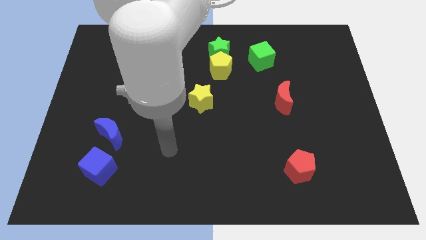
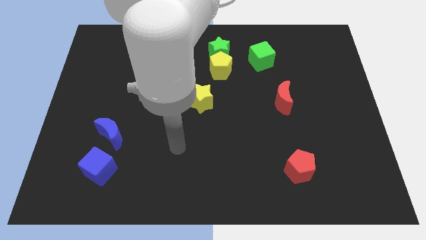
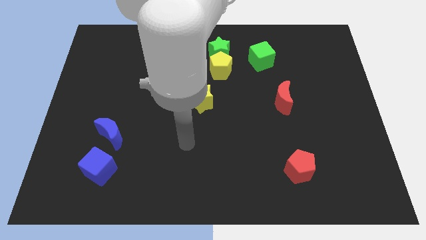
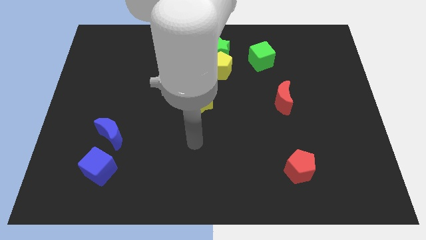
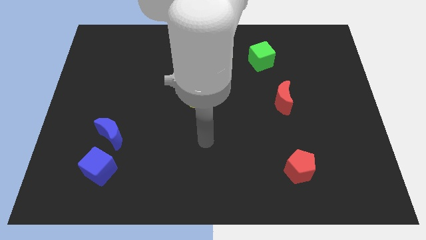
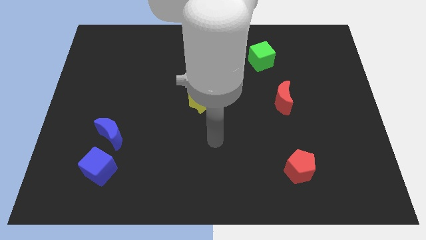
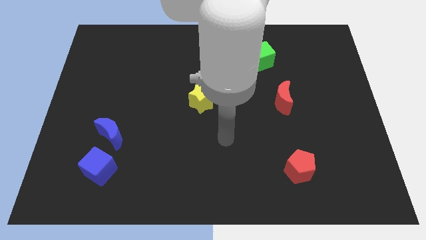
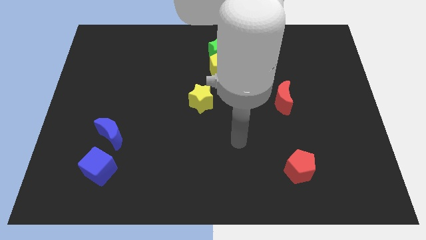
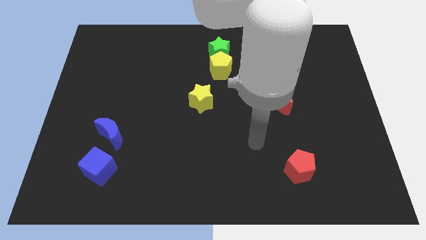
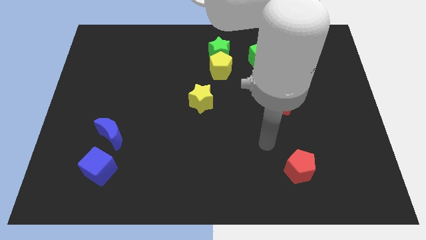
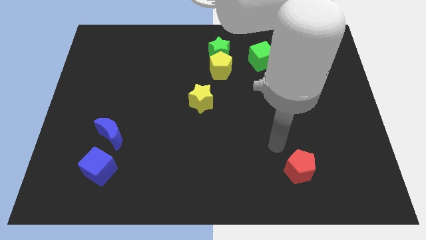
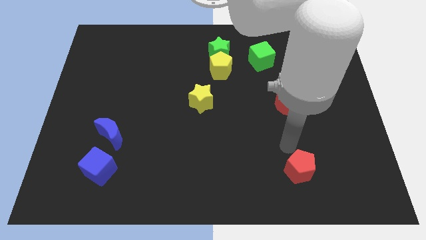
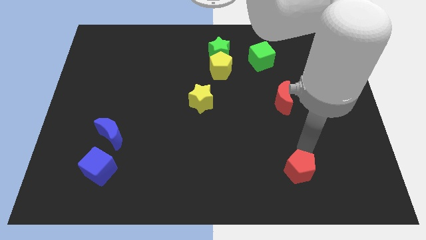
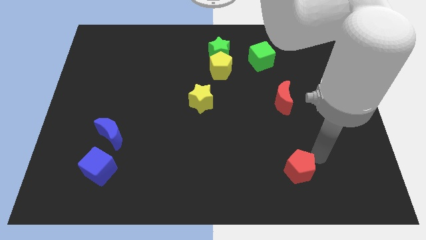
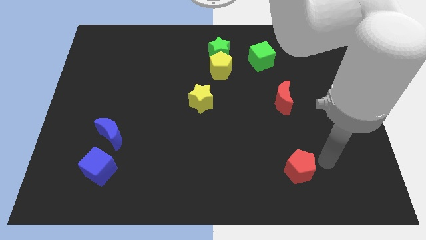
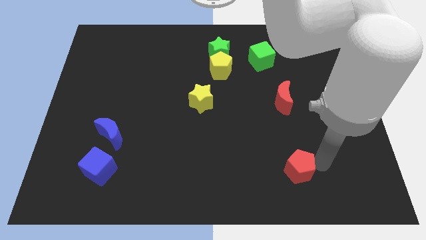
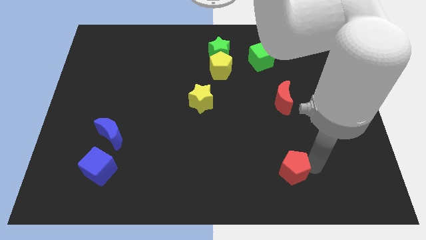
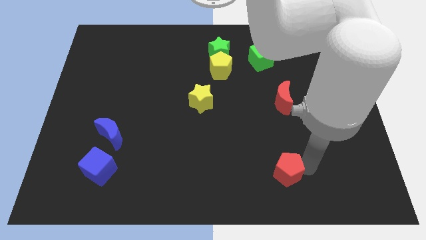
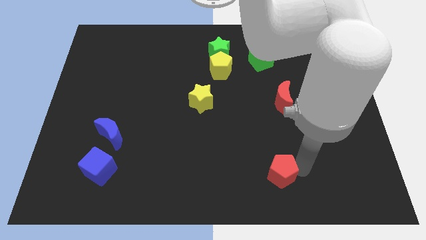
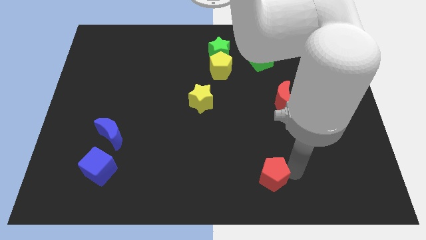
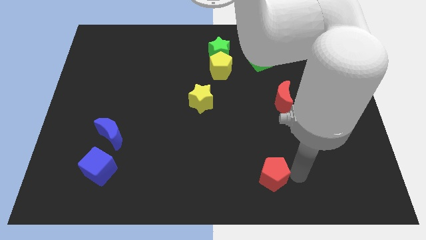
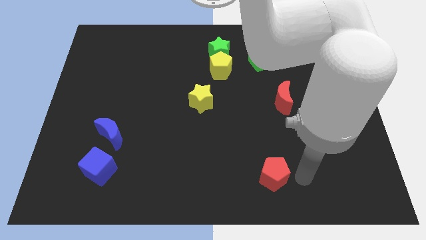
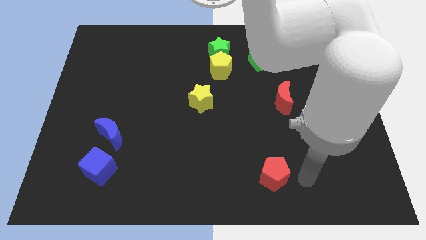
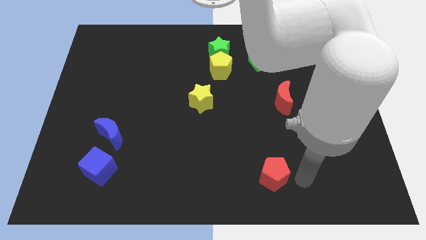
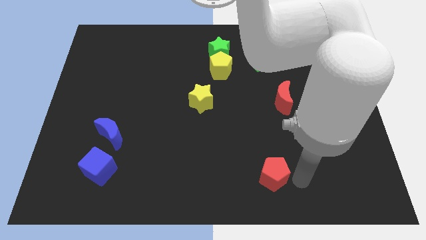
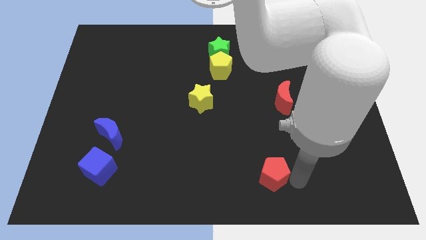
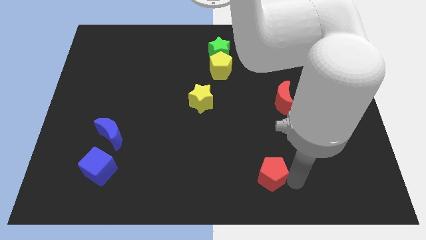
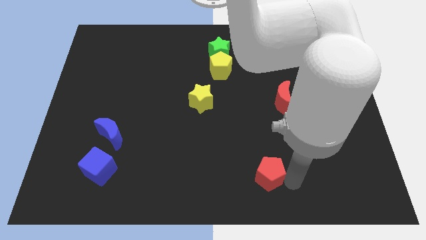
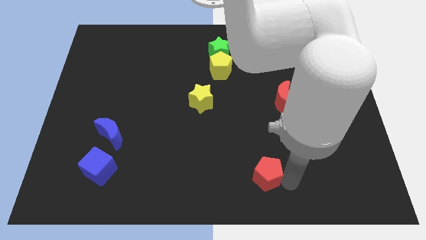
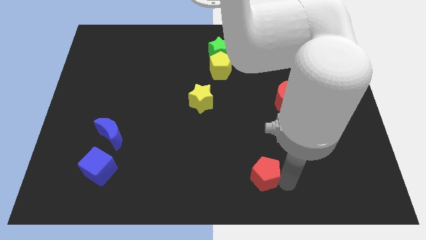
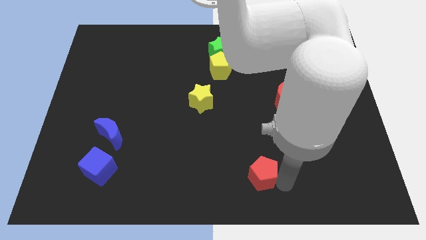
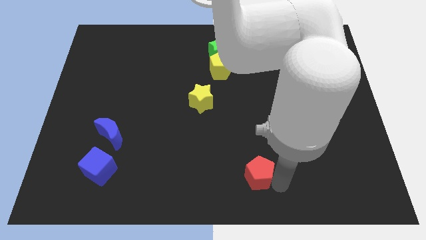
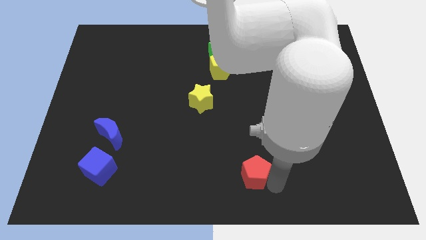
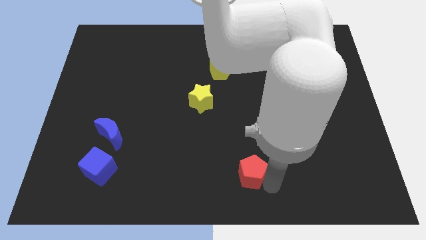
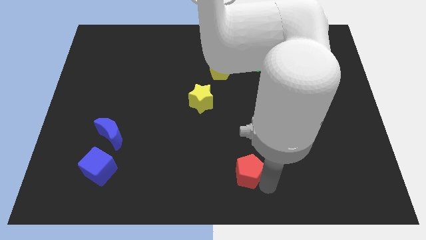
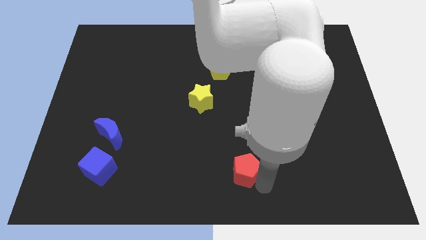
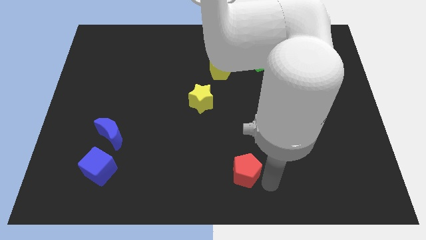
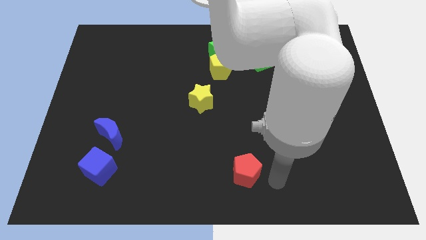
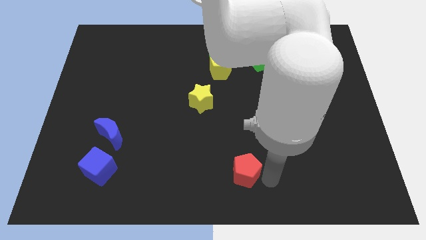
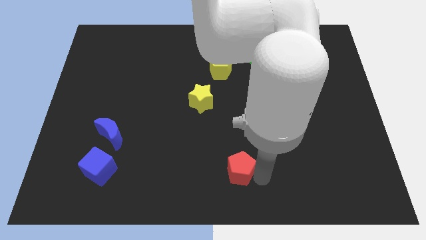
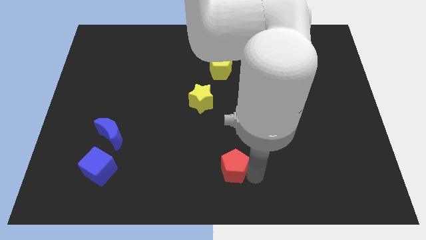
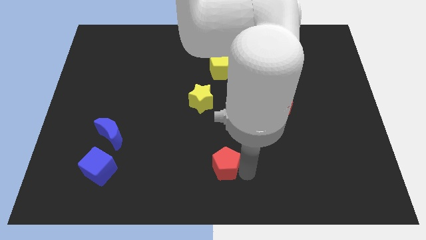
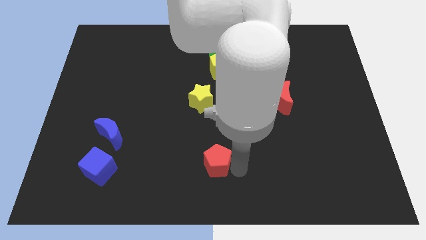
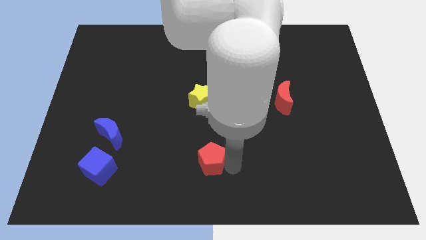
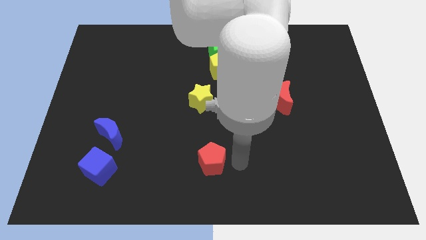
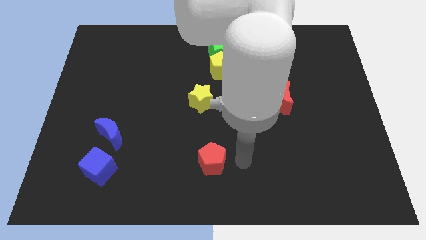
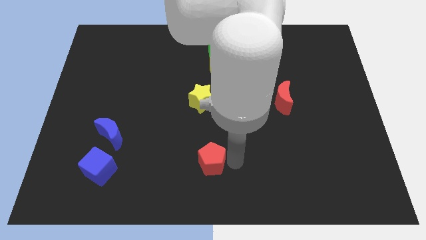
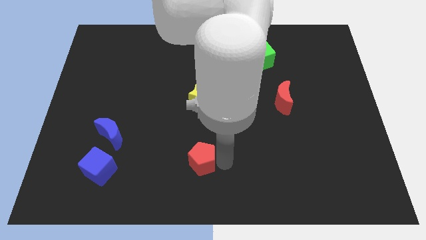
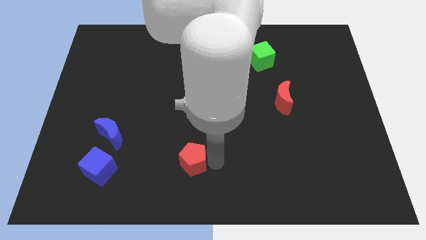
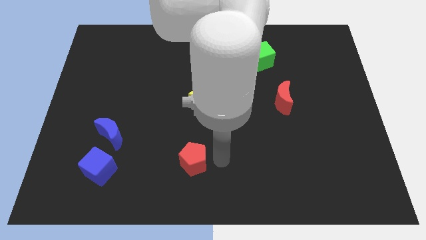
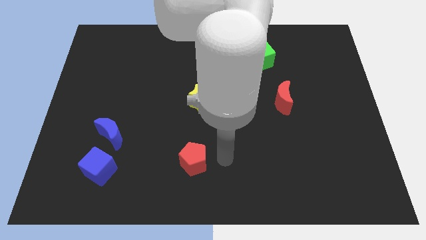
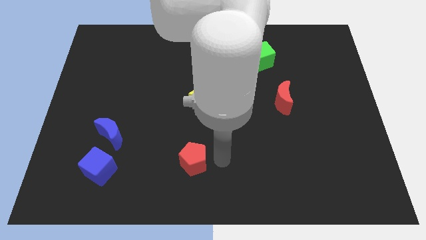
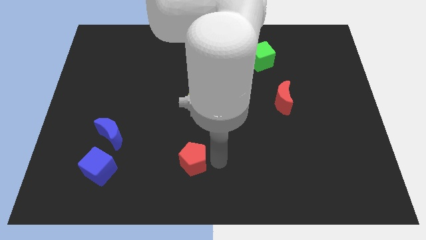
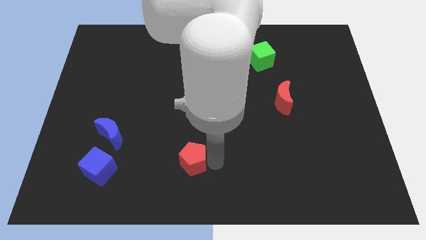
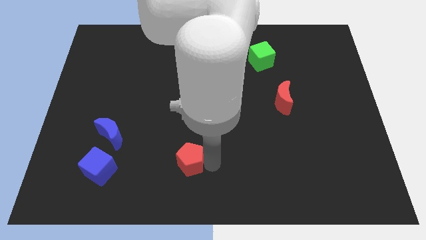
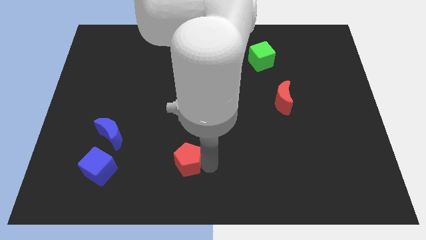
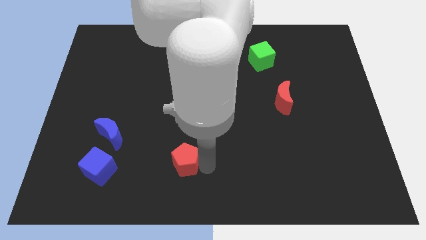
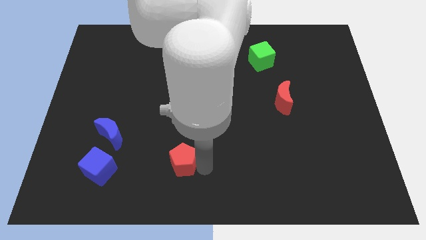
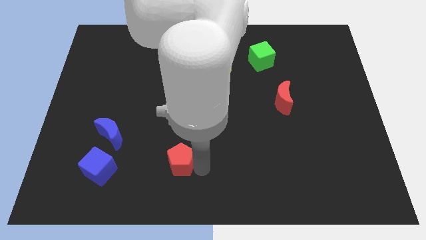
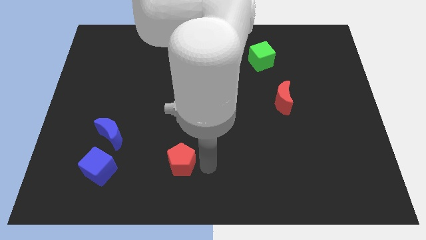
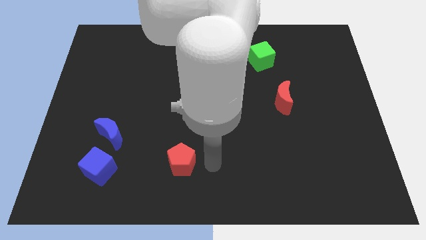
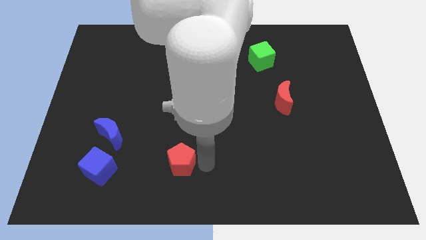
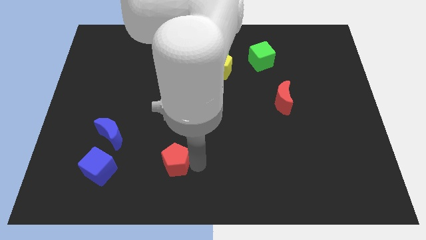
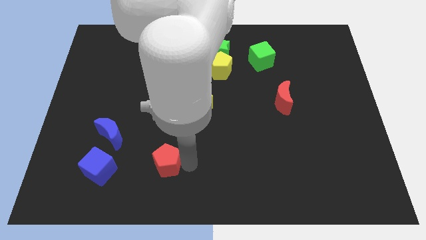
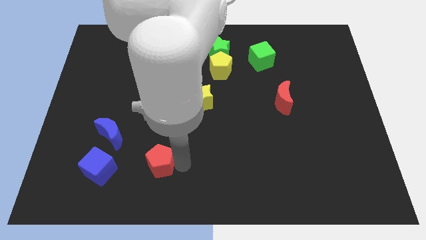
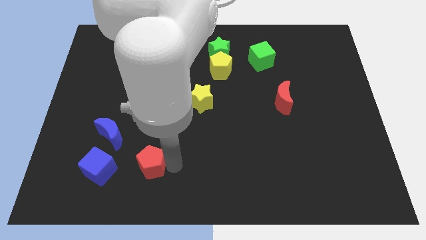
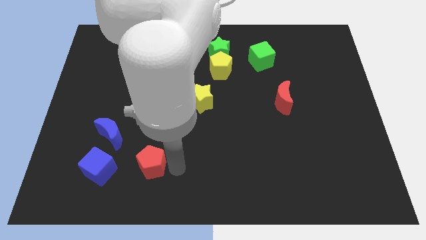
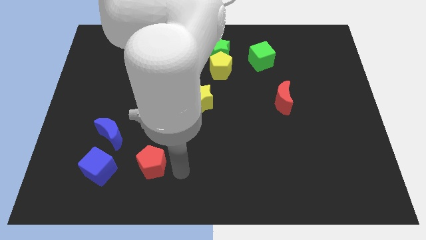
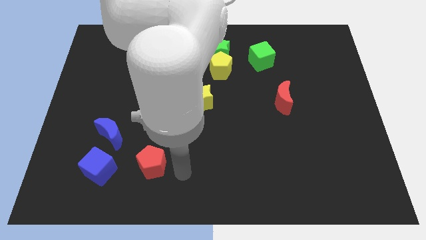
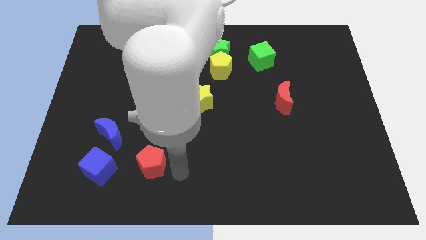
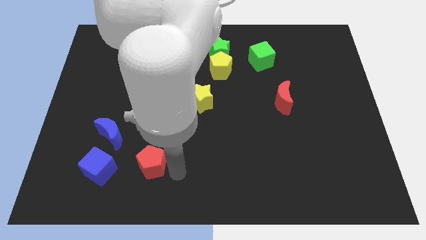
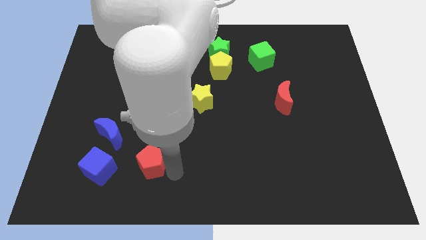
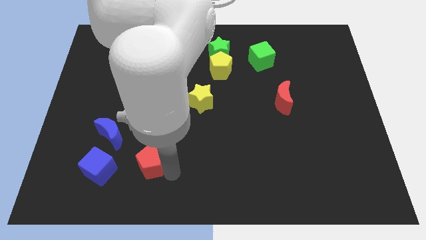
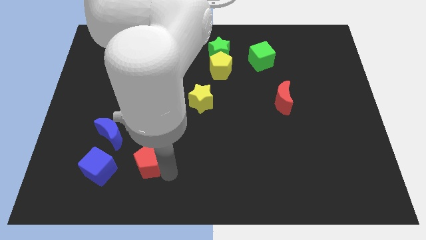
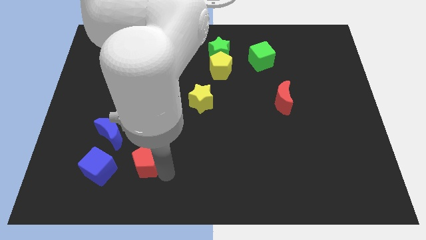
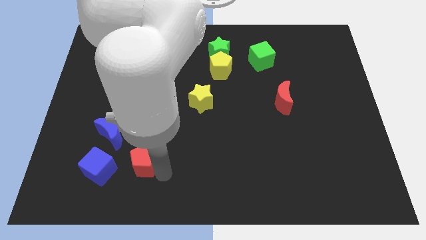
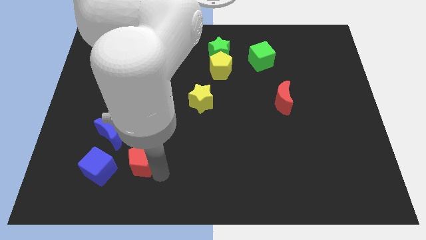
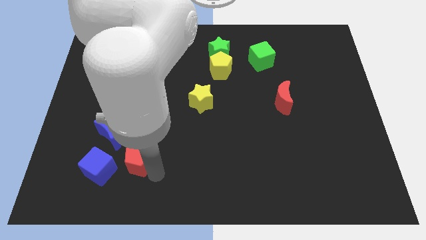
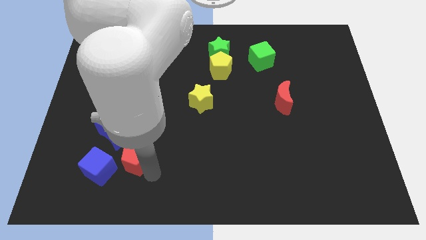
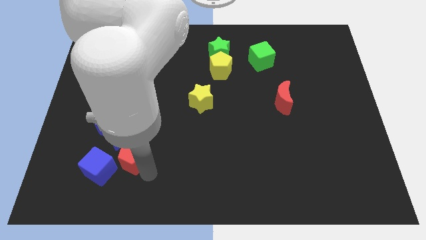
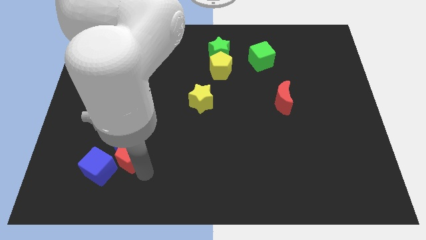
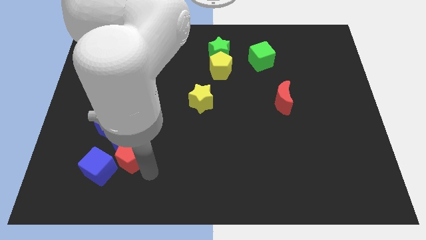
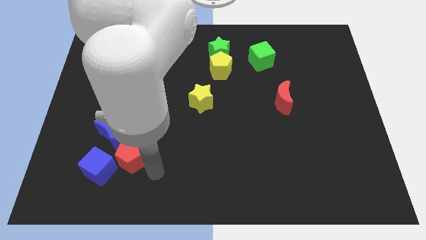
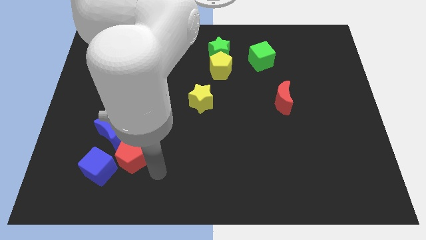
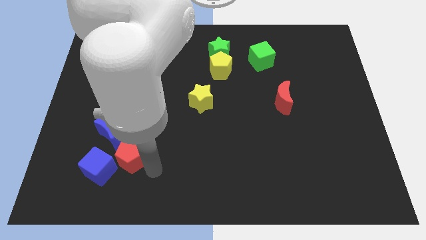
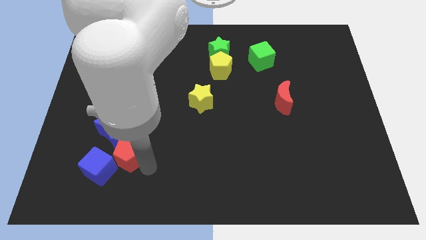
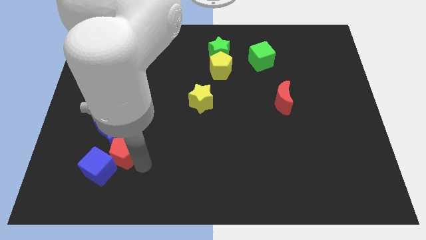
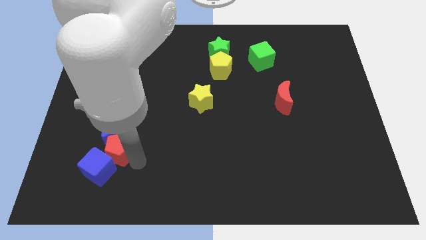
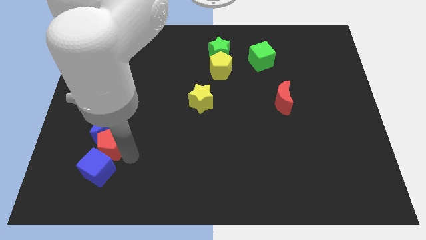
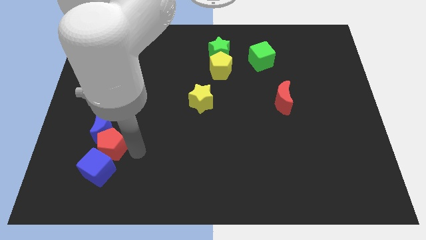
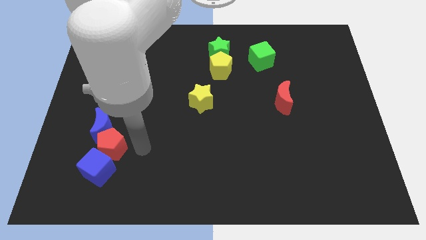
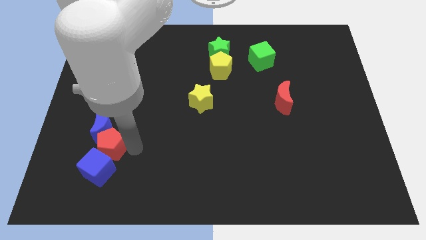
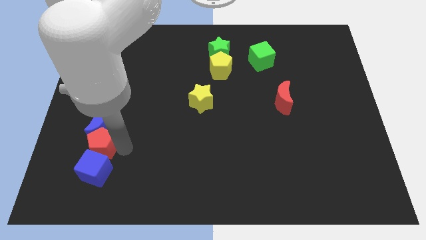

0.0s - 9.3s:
push the red pentagon to the bottom left side of the blue moon
